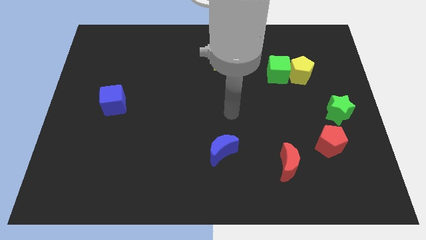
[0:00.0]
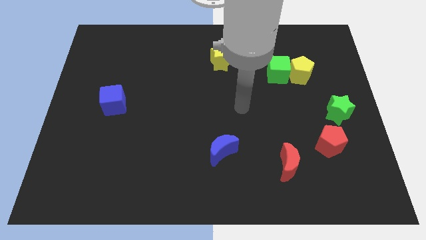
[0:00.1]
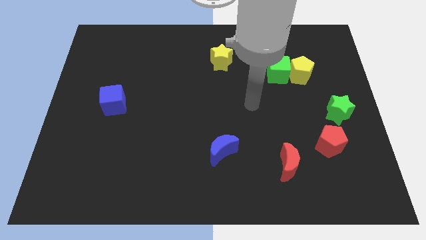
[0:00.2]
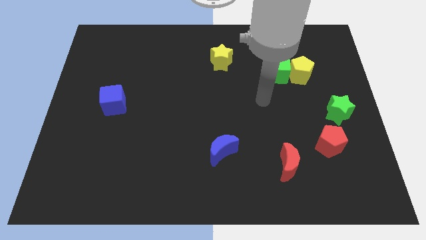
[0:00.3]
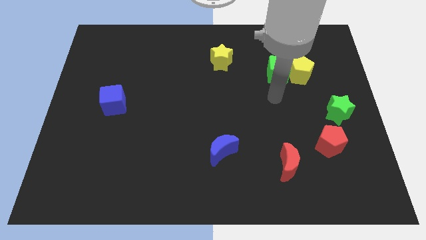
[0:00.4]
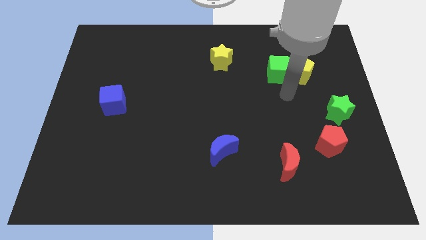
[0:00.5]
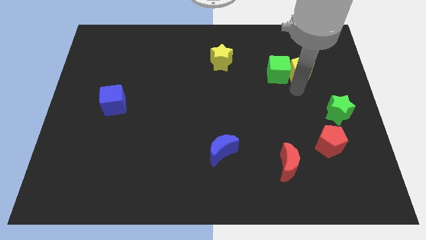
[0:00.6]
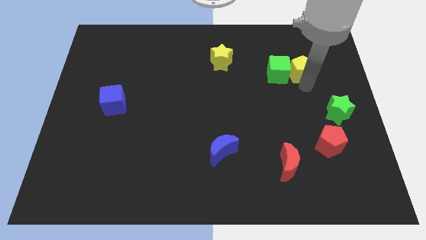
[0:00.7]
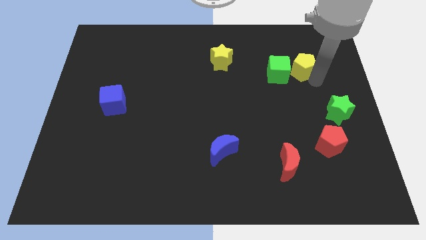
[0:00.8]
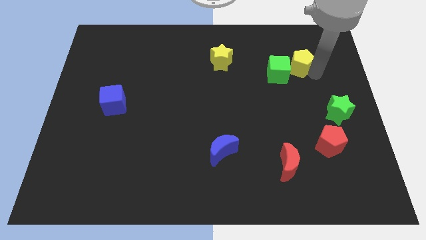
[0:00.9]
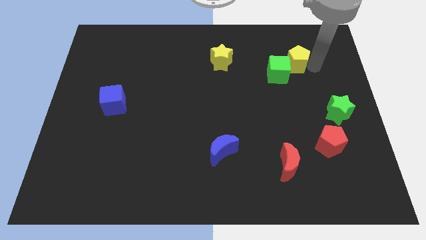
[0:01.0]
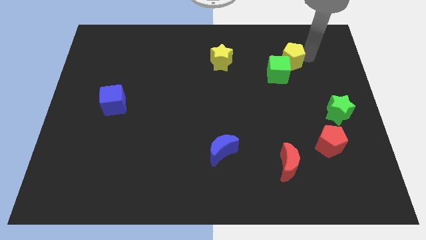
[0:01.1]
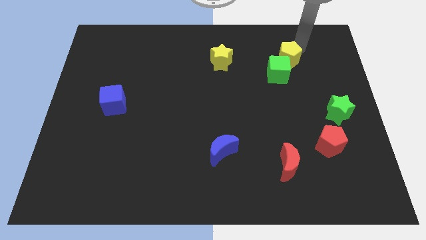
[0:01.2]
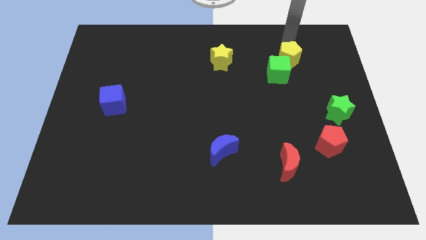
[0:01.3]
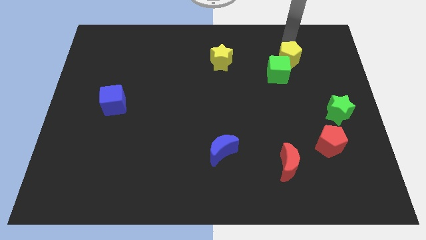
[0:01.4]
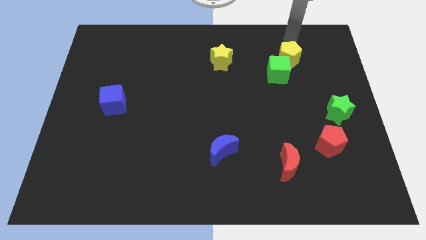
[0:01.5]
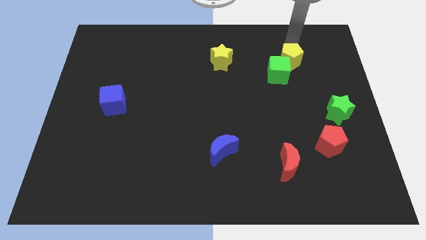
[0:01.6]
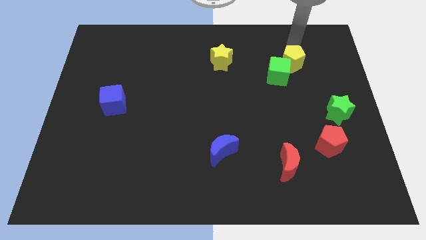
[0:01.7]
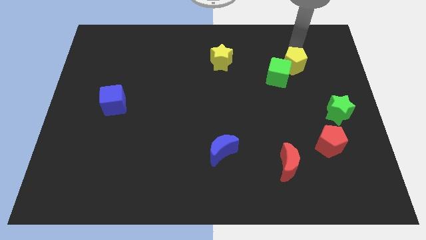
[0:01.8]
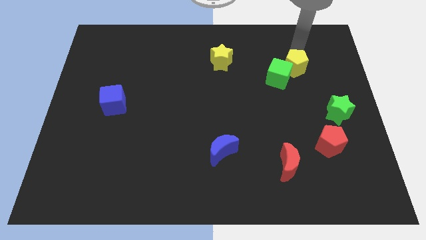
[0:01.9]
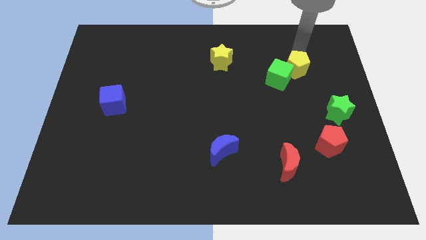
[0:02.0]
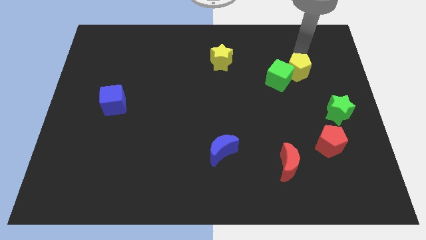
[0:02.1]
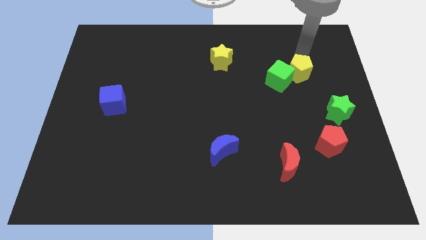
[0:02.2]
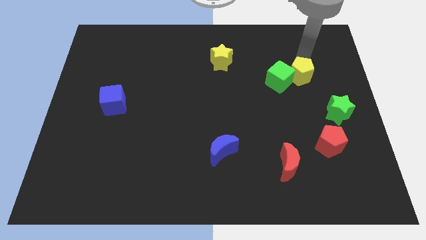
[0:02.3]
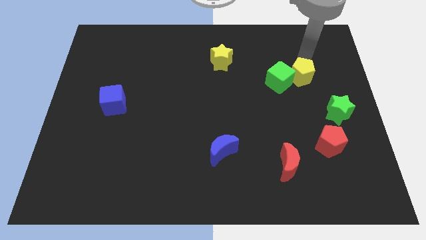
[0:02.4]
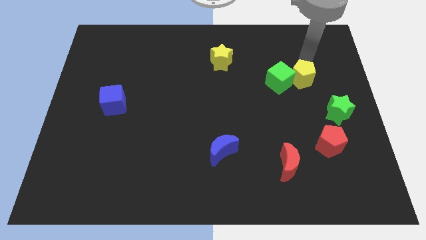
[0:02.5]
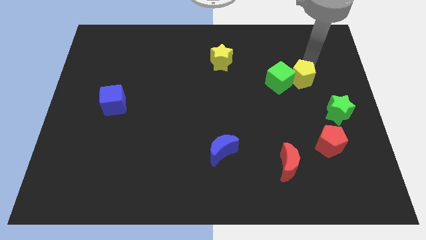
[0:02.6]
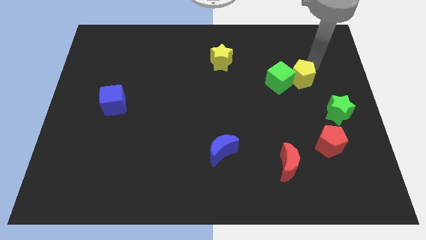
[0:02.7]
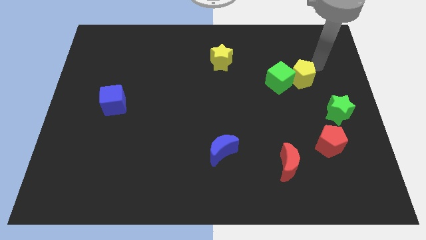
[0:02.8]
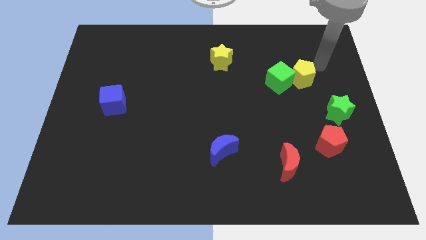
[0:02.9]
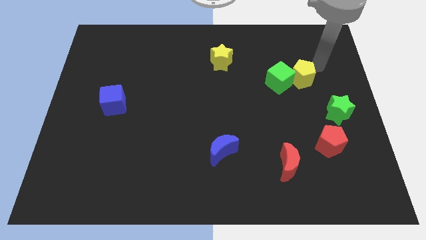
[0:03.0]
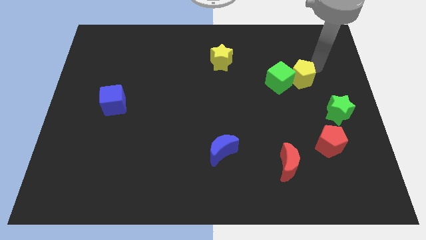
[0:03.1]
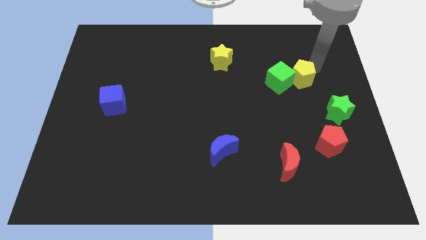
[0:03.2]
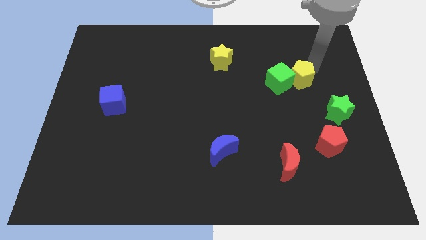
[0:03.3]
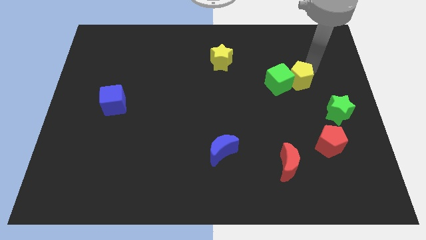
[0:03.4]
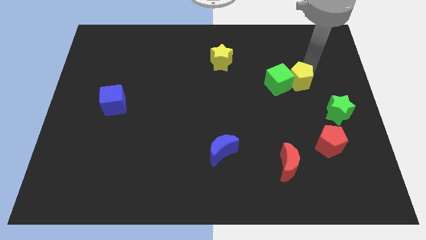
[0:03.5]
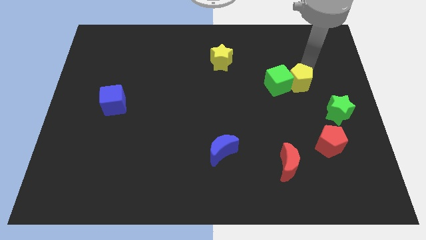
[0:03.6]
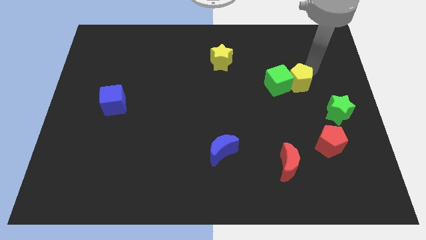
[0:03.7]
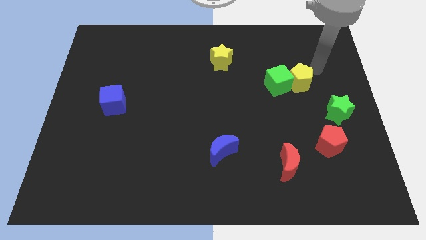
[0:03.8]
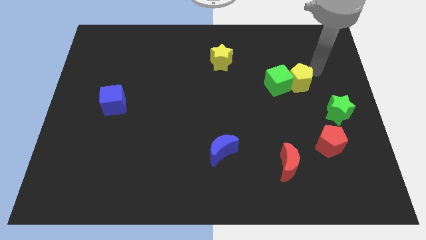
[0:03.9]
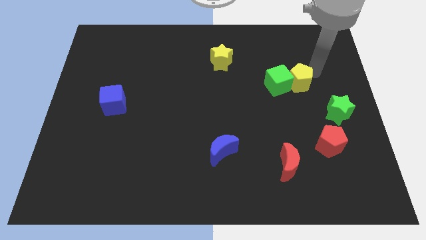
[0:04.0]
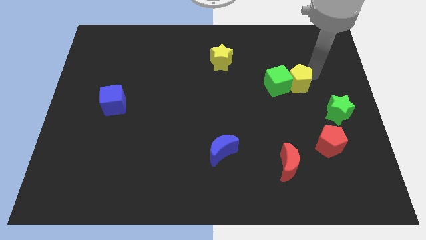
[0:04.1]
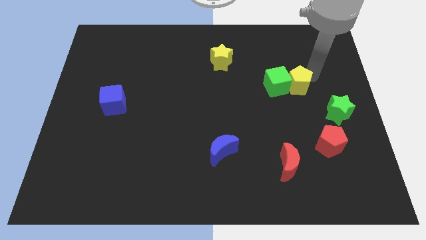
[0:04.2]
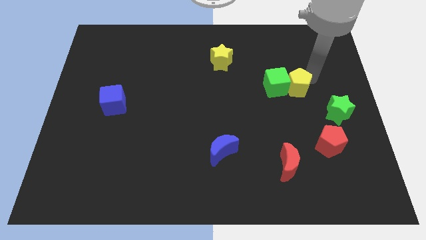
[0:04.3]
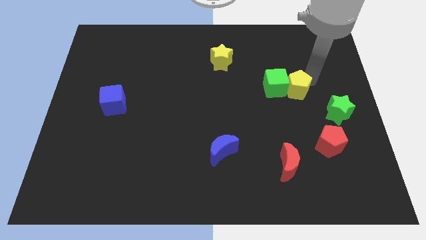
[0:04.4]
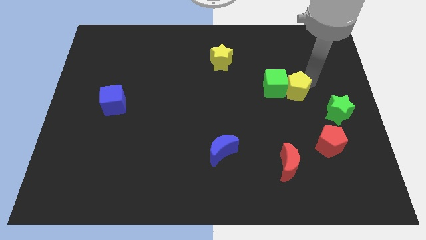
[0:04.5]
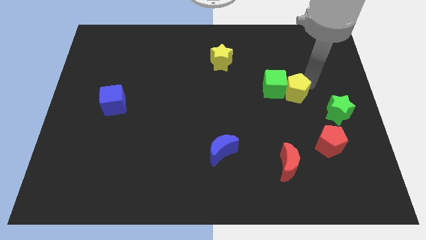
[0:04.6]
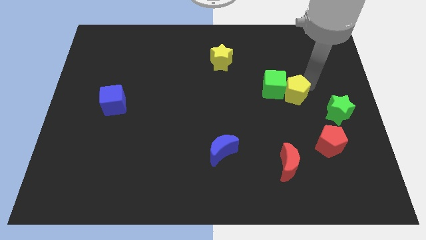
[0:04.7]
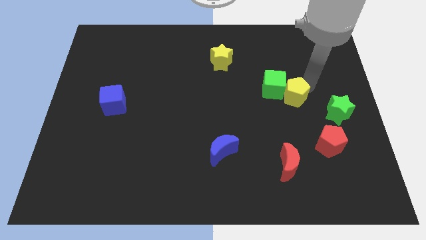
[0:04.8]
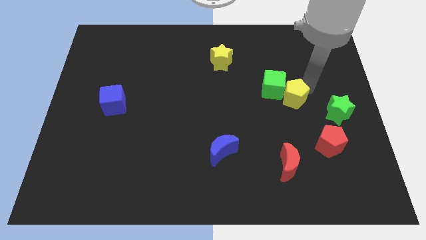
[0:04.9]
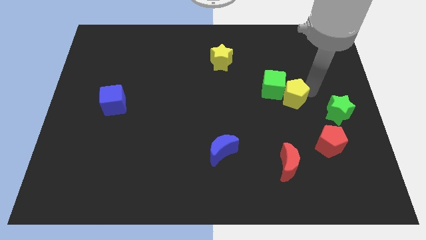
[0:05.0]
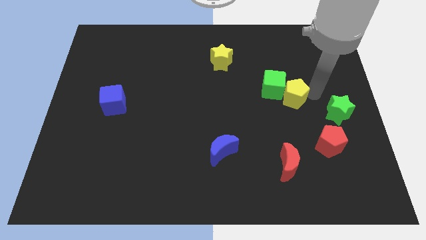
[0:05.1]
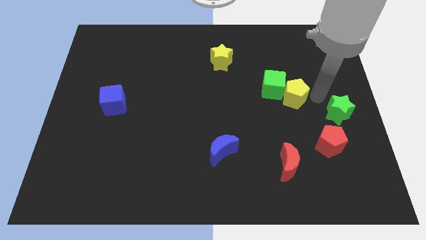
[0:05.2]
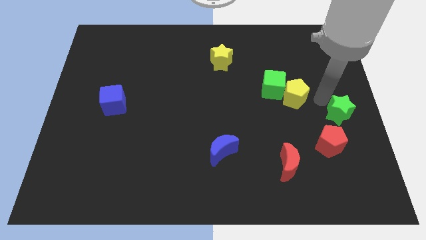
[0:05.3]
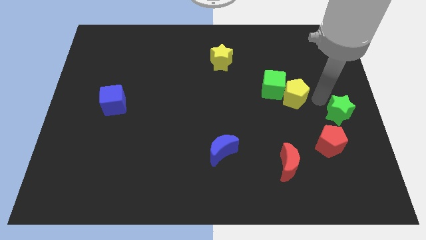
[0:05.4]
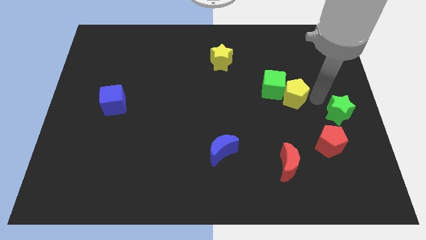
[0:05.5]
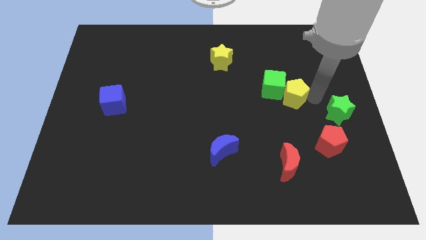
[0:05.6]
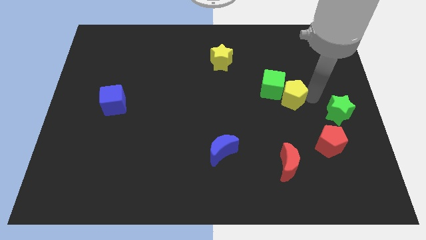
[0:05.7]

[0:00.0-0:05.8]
move the yellow pentagon diagonally down and to the left slightly

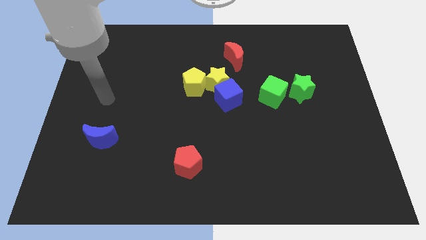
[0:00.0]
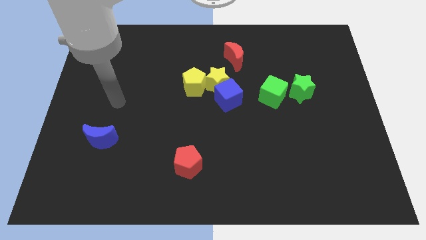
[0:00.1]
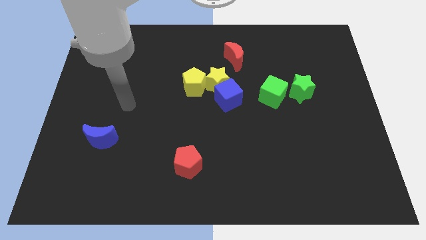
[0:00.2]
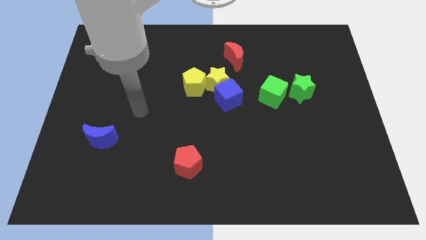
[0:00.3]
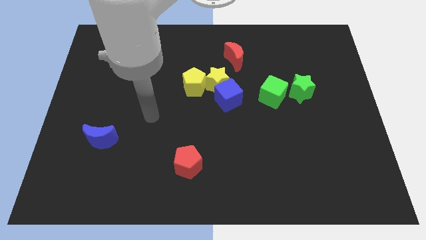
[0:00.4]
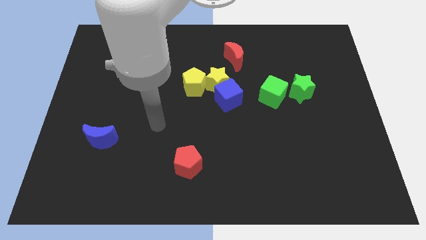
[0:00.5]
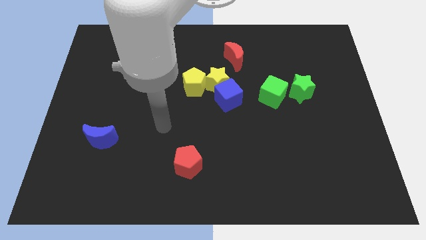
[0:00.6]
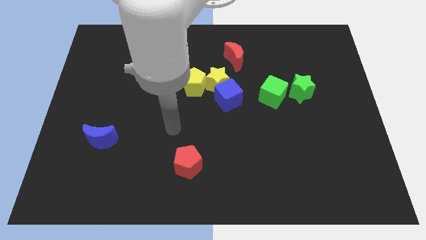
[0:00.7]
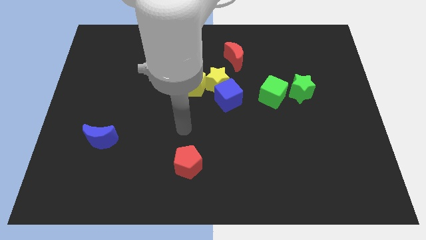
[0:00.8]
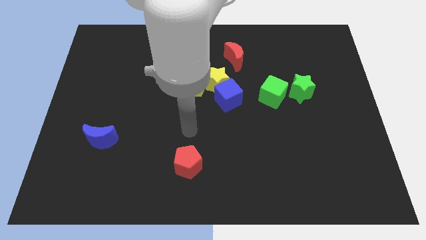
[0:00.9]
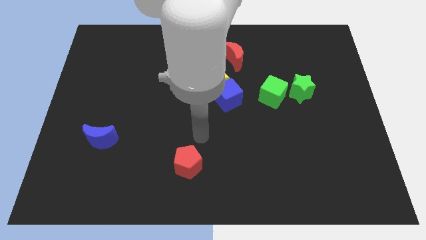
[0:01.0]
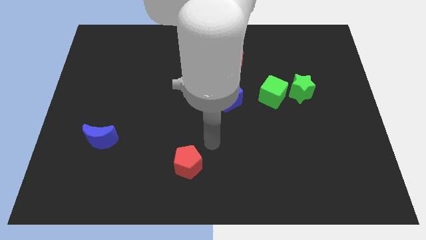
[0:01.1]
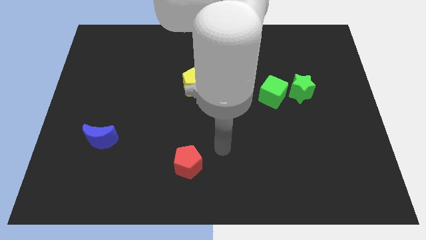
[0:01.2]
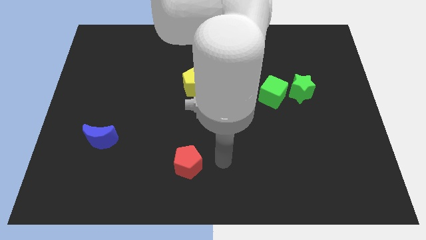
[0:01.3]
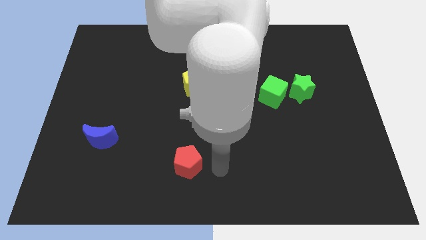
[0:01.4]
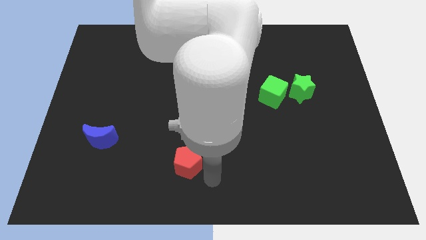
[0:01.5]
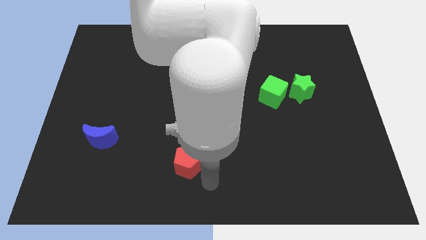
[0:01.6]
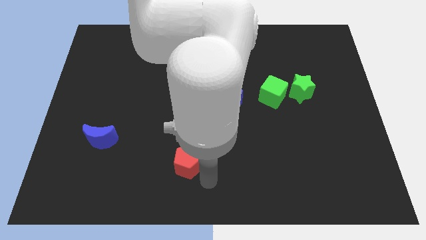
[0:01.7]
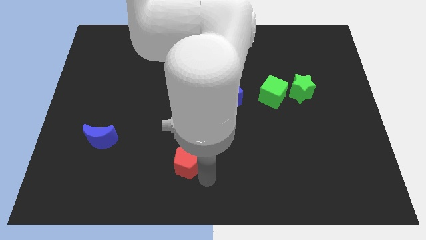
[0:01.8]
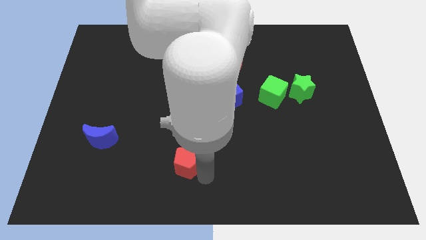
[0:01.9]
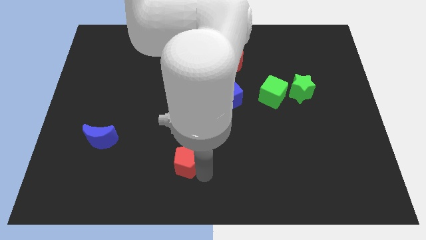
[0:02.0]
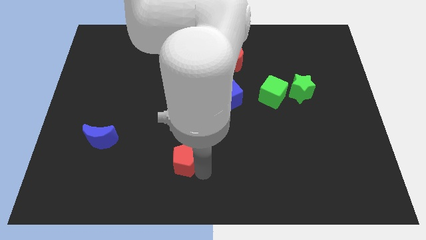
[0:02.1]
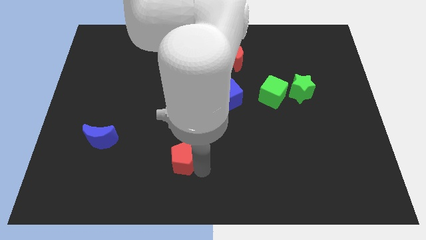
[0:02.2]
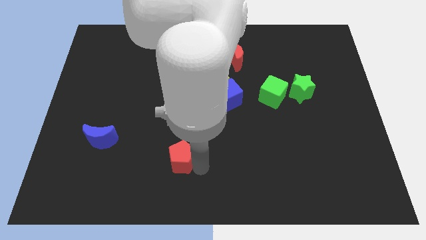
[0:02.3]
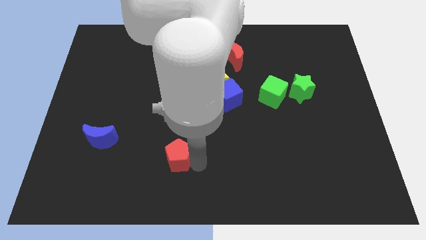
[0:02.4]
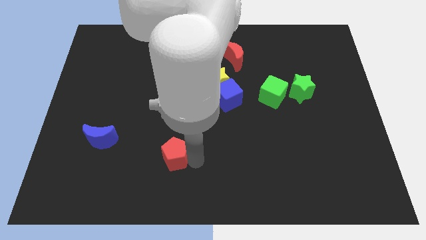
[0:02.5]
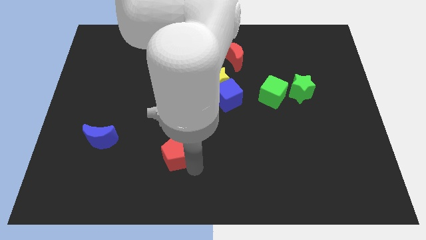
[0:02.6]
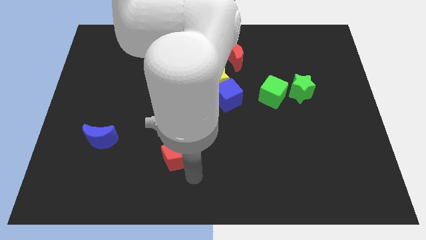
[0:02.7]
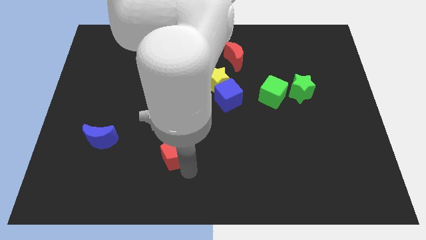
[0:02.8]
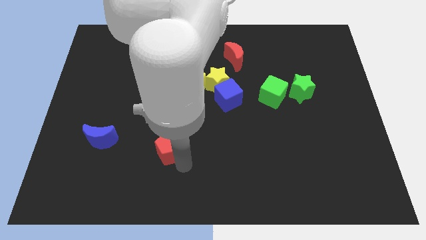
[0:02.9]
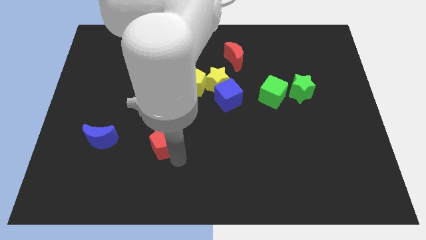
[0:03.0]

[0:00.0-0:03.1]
slightly push the red pentagon upwards and left diagonally
